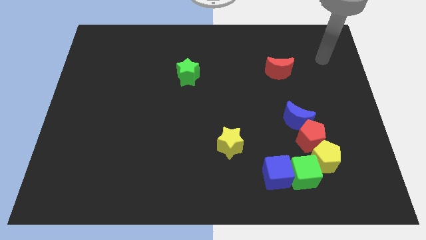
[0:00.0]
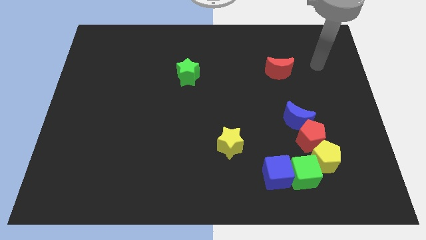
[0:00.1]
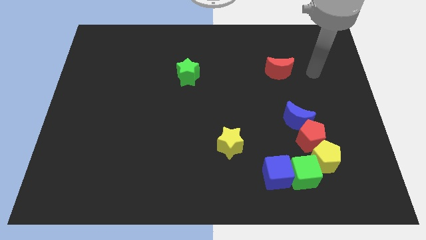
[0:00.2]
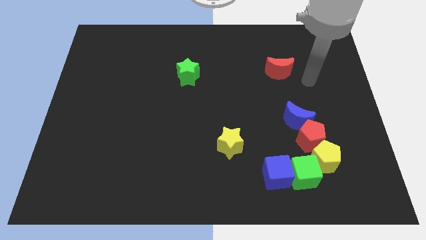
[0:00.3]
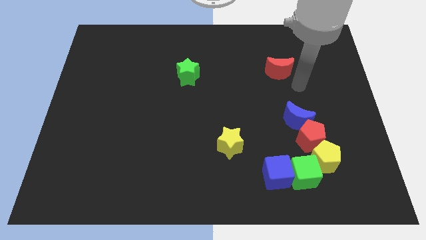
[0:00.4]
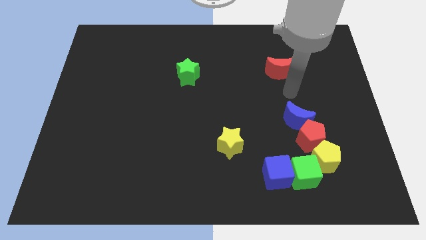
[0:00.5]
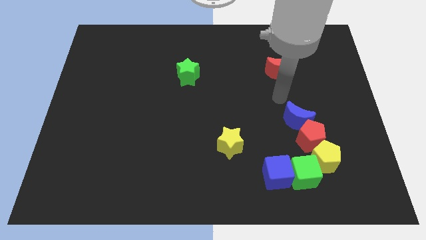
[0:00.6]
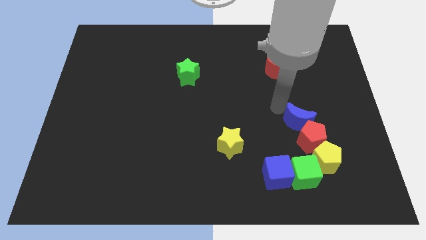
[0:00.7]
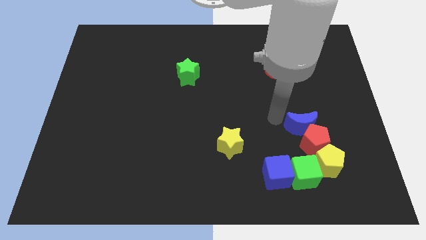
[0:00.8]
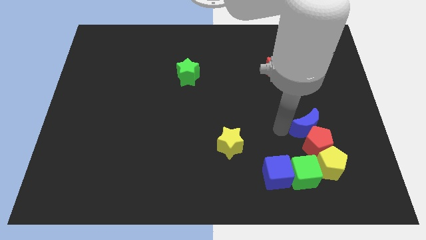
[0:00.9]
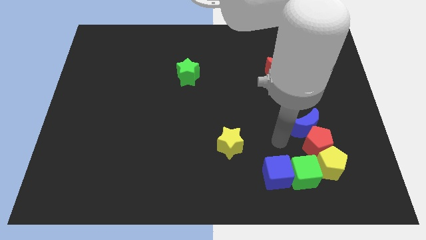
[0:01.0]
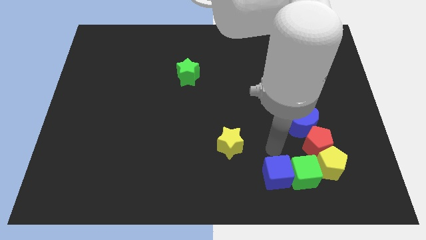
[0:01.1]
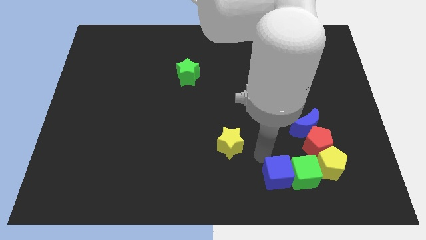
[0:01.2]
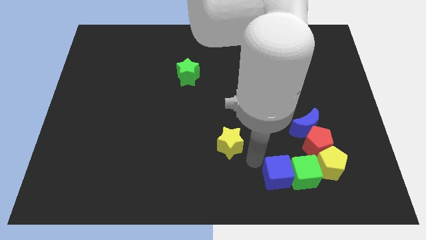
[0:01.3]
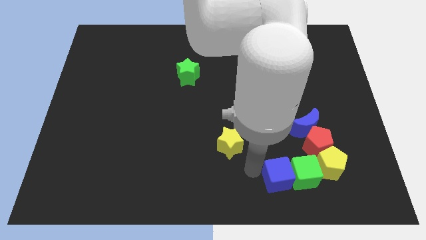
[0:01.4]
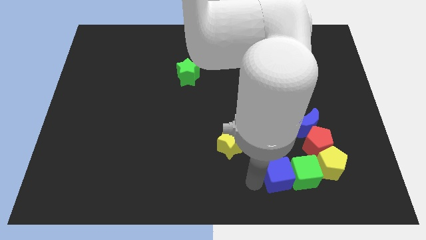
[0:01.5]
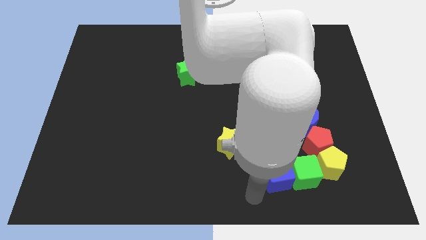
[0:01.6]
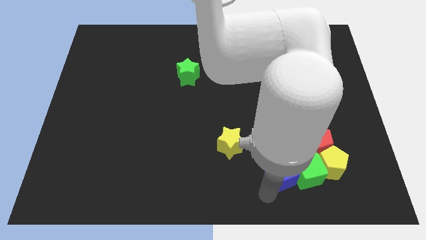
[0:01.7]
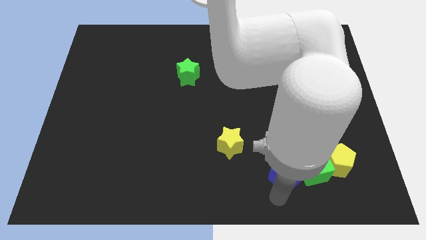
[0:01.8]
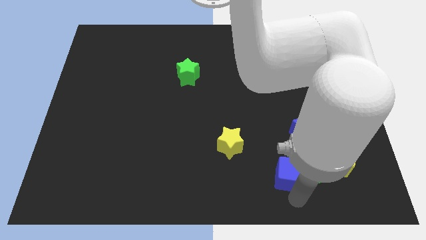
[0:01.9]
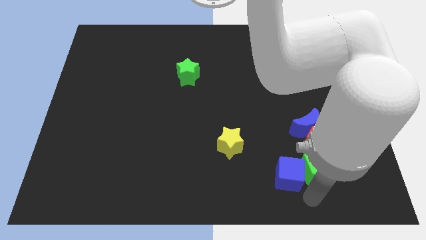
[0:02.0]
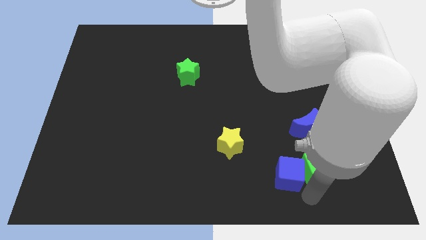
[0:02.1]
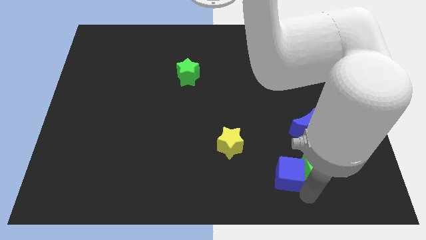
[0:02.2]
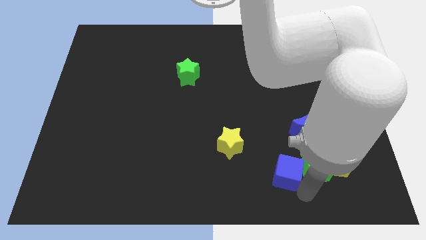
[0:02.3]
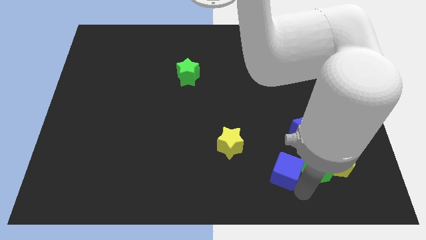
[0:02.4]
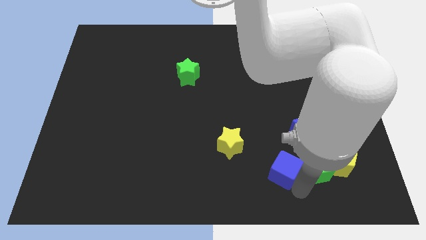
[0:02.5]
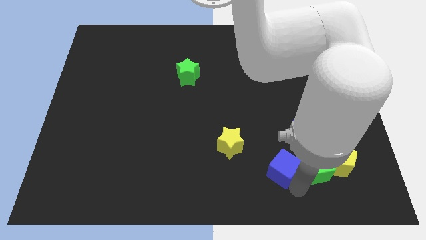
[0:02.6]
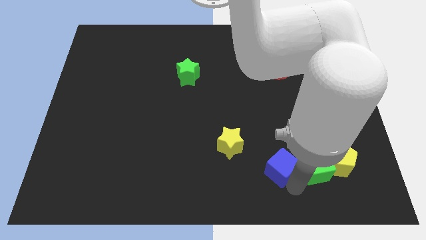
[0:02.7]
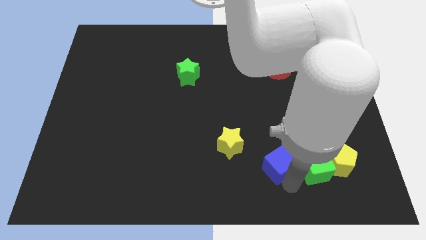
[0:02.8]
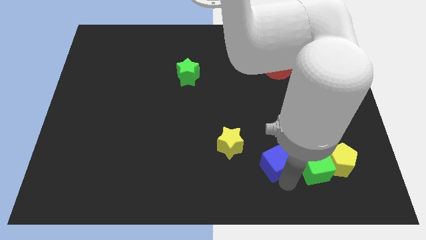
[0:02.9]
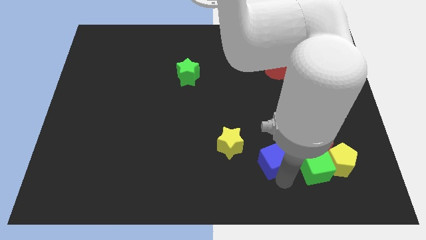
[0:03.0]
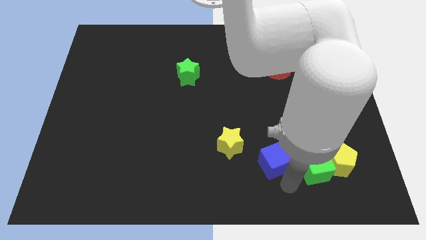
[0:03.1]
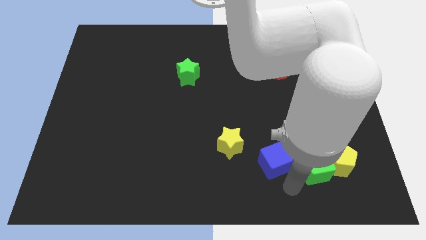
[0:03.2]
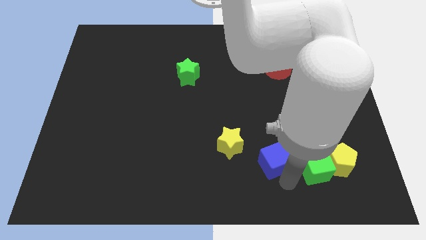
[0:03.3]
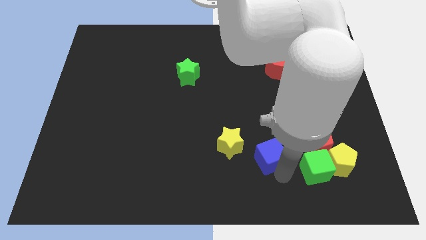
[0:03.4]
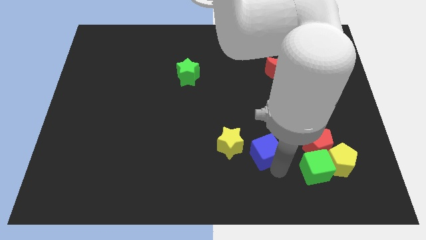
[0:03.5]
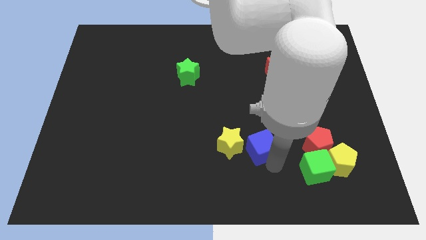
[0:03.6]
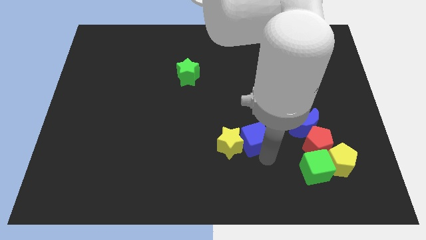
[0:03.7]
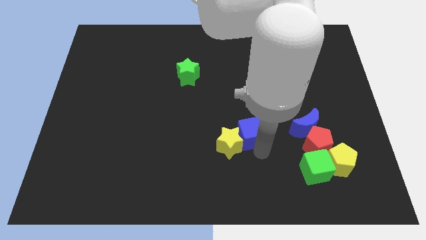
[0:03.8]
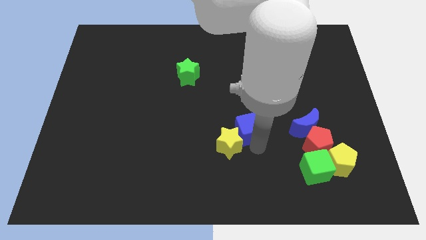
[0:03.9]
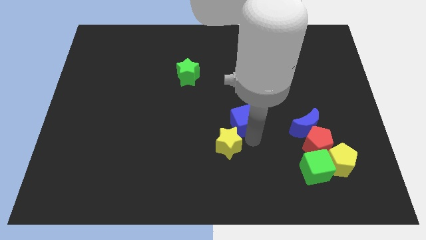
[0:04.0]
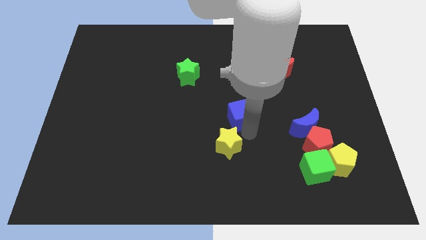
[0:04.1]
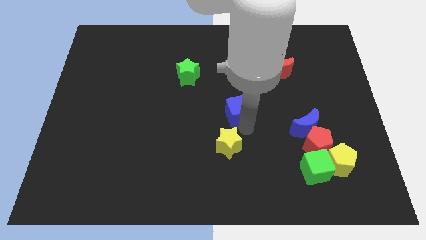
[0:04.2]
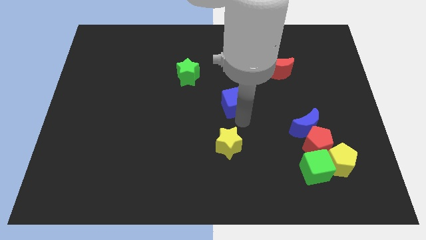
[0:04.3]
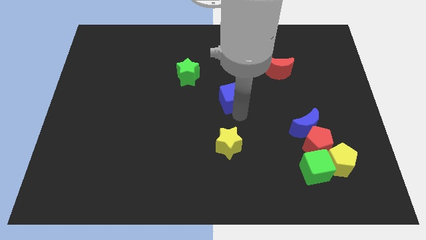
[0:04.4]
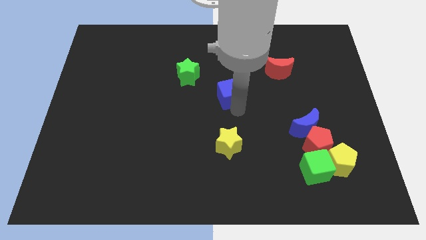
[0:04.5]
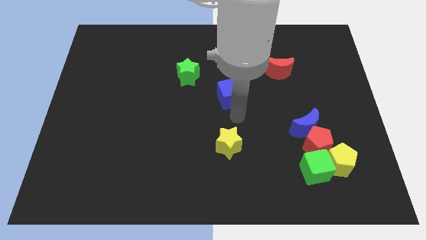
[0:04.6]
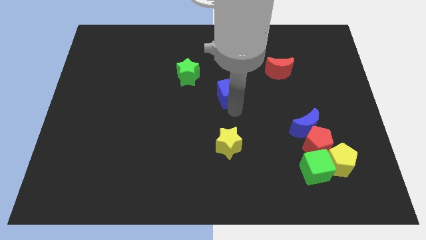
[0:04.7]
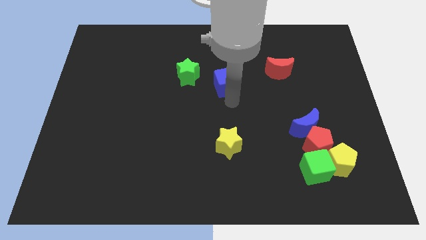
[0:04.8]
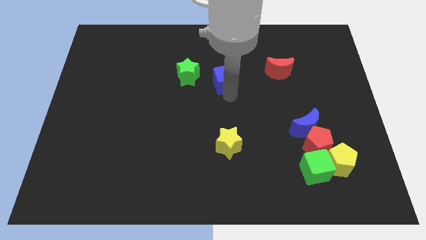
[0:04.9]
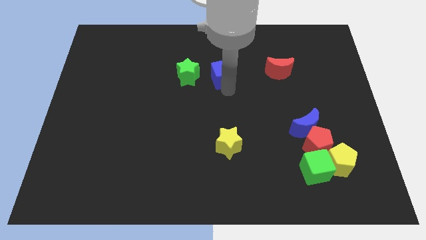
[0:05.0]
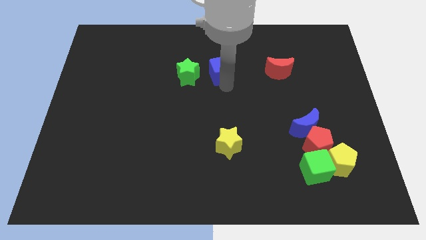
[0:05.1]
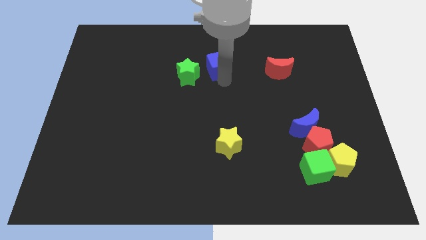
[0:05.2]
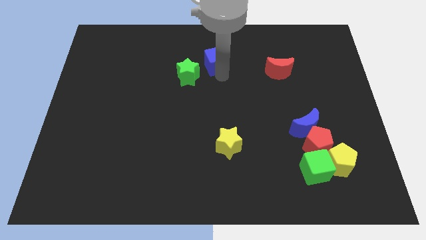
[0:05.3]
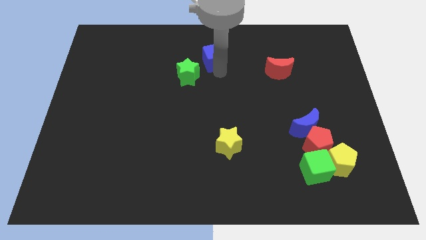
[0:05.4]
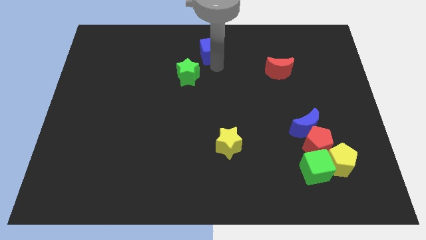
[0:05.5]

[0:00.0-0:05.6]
slide the blue cube to the top

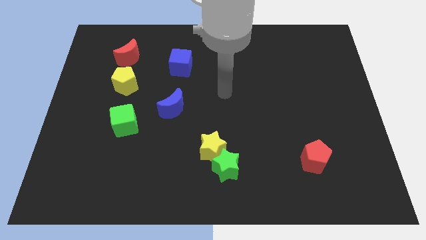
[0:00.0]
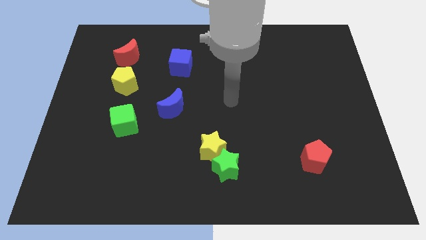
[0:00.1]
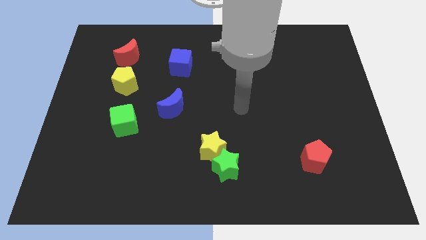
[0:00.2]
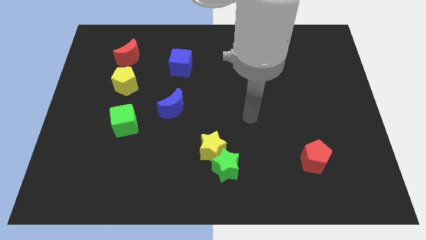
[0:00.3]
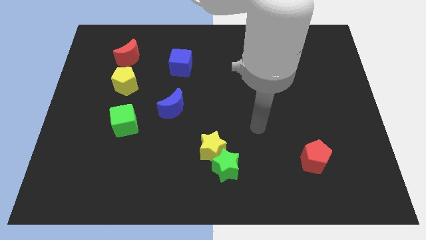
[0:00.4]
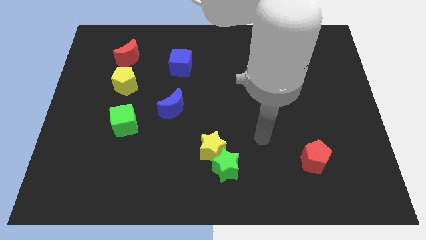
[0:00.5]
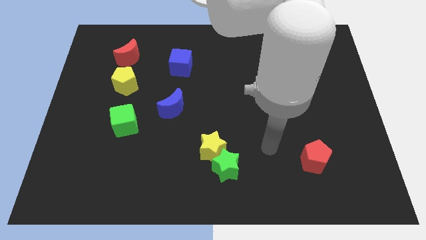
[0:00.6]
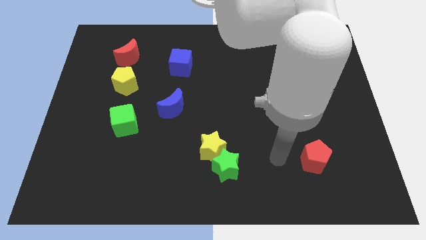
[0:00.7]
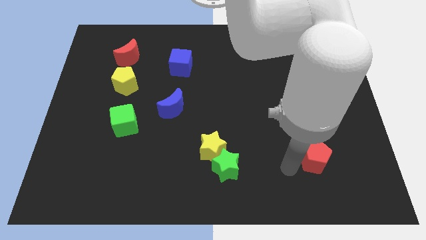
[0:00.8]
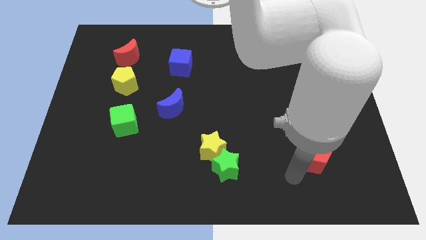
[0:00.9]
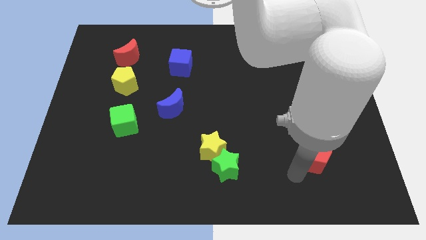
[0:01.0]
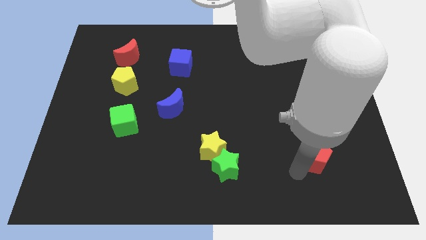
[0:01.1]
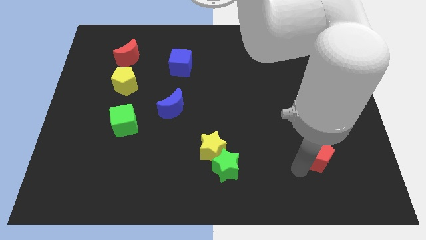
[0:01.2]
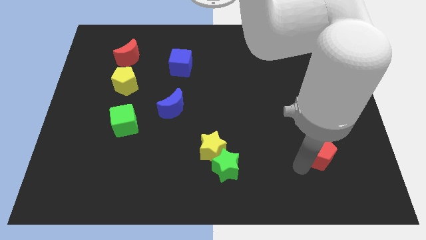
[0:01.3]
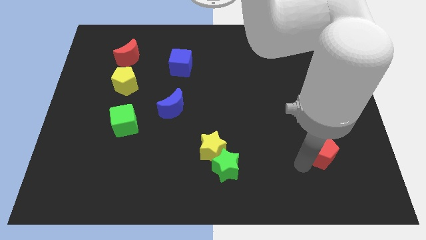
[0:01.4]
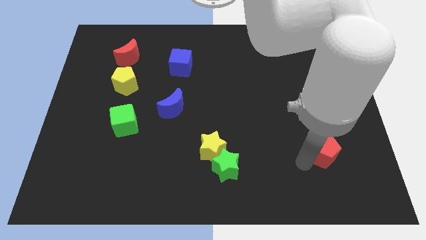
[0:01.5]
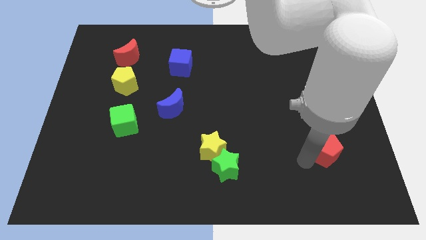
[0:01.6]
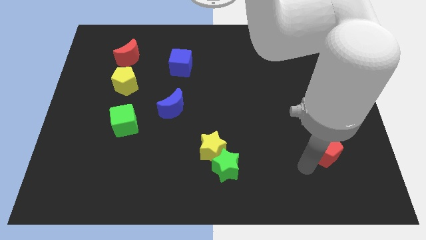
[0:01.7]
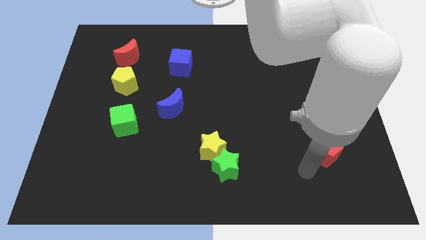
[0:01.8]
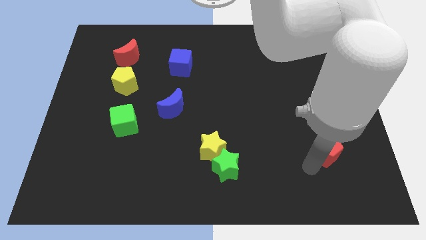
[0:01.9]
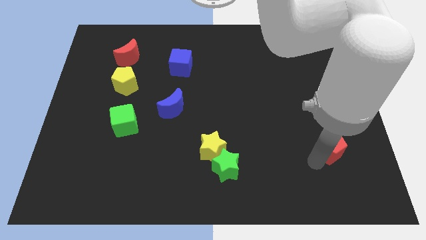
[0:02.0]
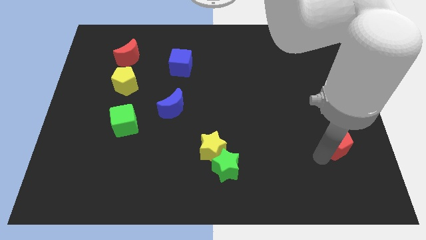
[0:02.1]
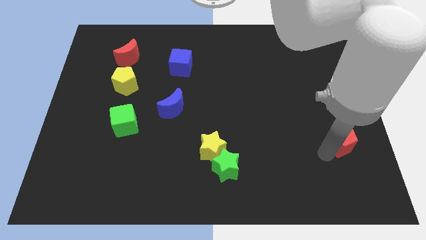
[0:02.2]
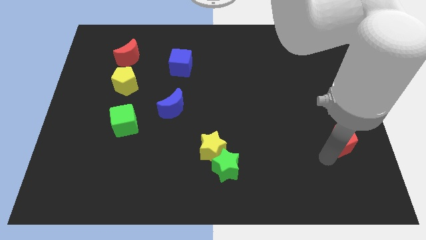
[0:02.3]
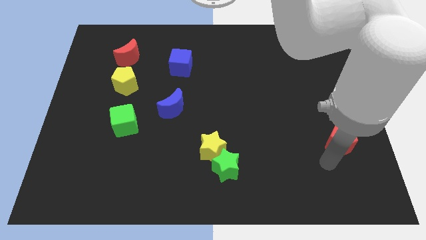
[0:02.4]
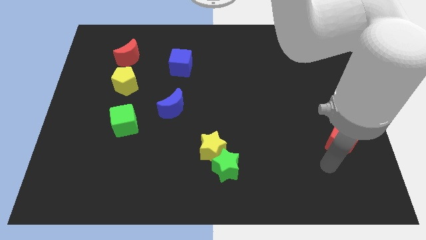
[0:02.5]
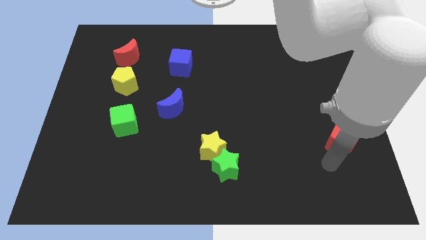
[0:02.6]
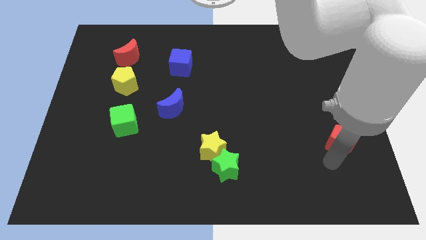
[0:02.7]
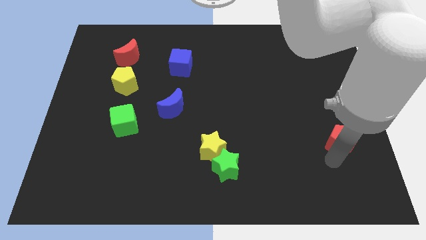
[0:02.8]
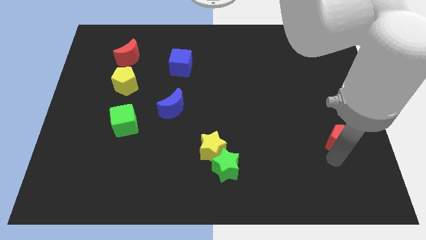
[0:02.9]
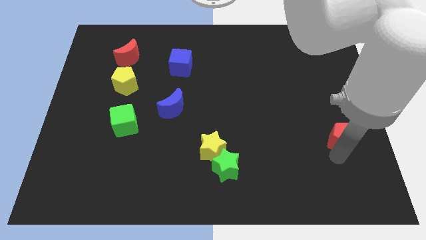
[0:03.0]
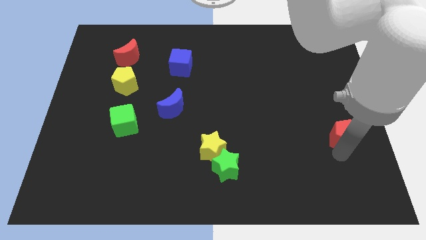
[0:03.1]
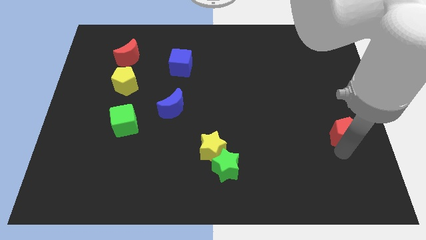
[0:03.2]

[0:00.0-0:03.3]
push the red pentagon to the center right
